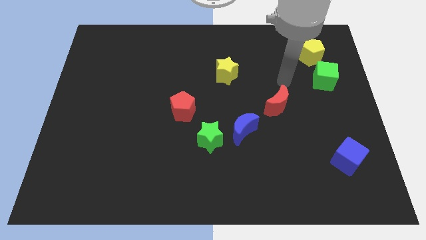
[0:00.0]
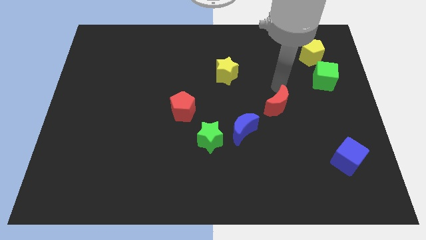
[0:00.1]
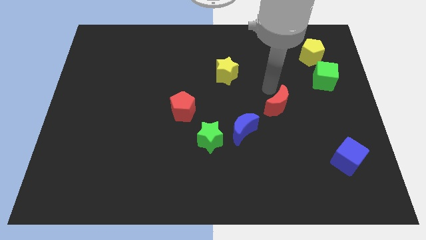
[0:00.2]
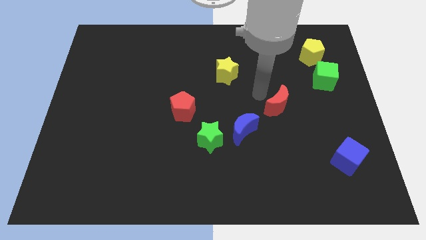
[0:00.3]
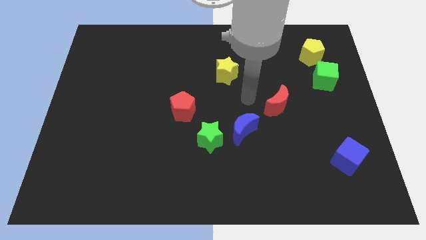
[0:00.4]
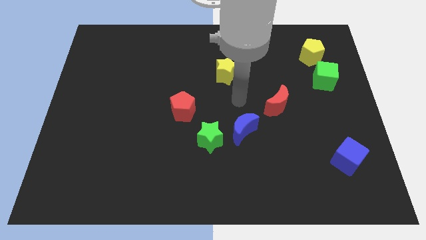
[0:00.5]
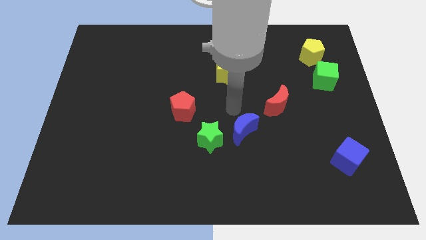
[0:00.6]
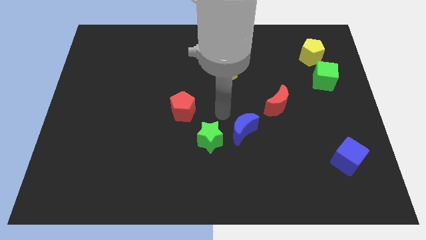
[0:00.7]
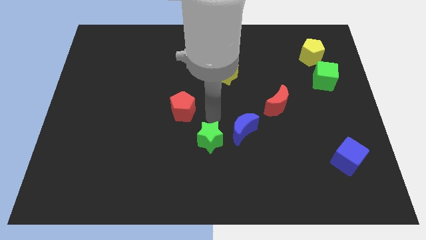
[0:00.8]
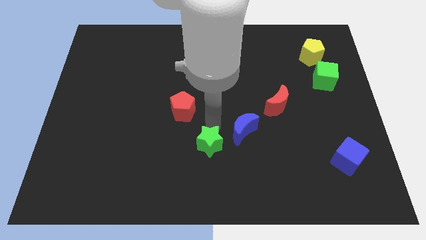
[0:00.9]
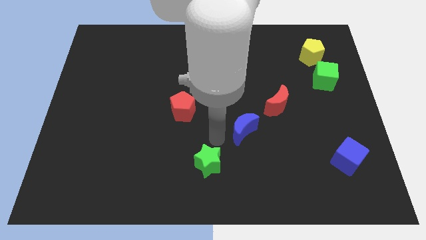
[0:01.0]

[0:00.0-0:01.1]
pull the blue moon apart from the green star

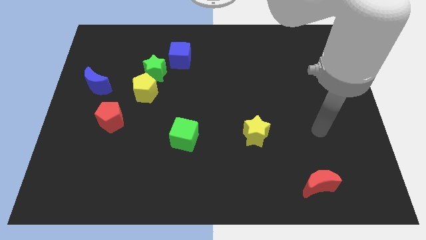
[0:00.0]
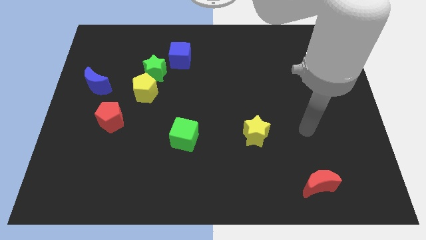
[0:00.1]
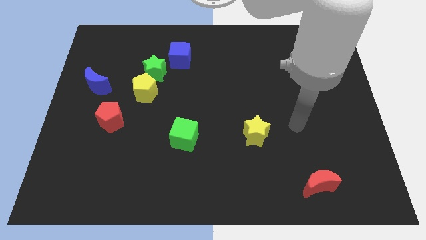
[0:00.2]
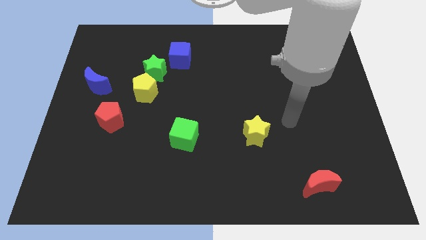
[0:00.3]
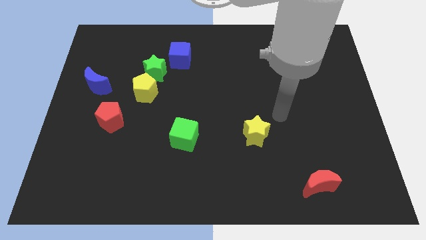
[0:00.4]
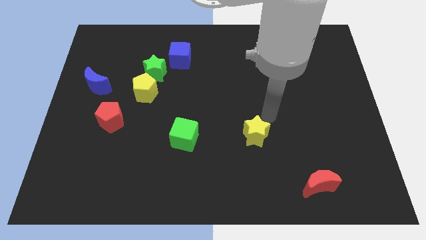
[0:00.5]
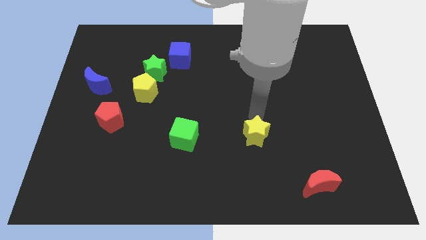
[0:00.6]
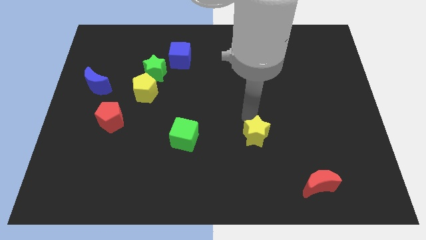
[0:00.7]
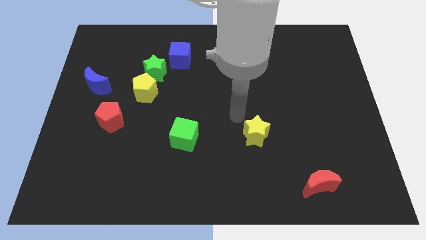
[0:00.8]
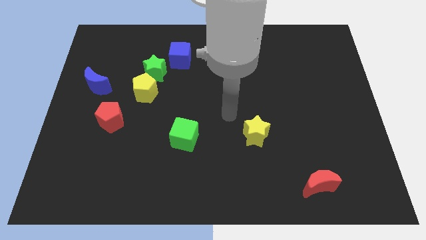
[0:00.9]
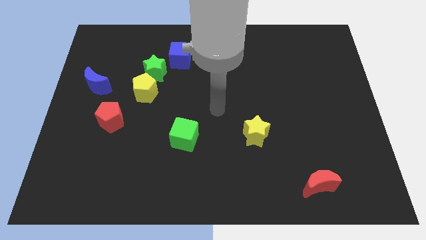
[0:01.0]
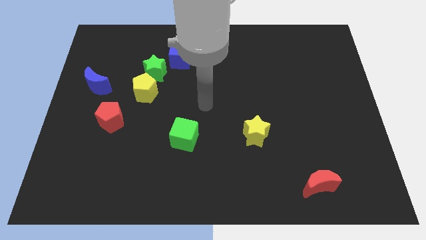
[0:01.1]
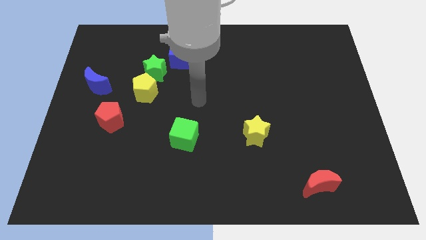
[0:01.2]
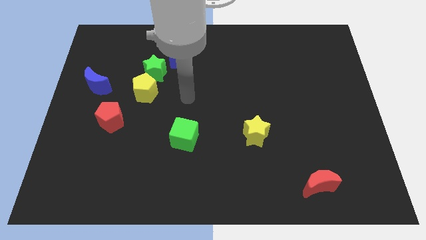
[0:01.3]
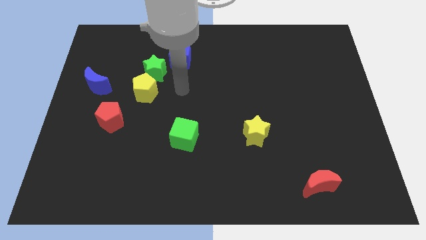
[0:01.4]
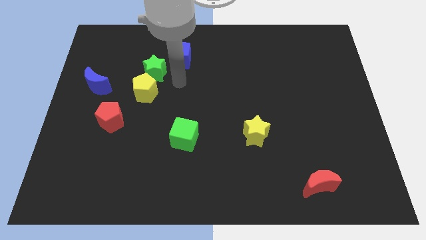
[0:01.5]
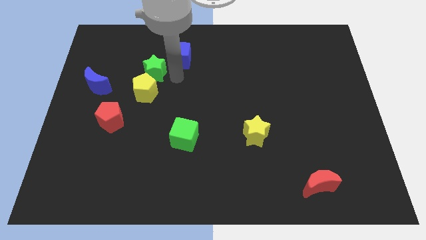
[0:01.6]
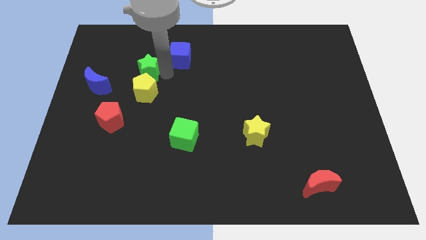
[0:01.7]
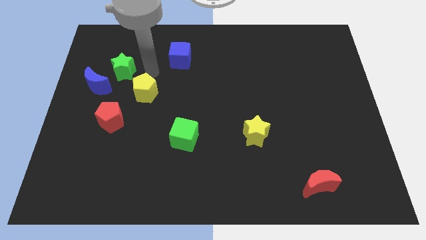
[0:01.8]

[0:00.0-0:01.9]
move the yellow pentagon away from the green star

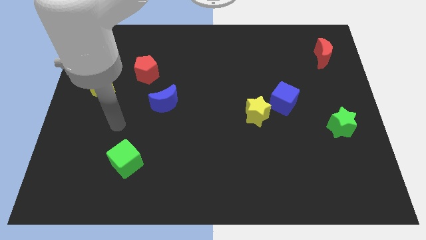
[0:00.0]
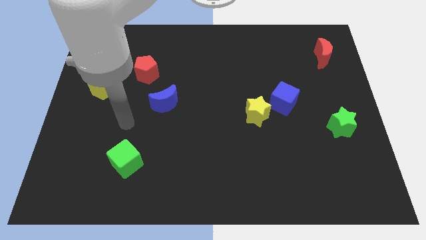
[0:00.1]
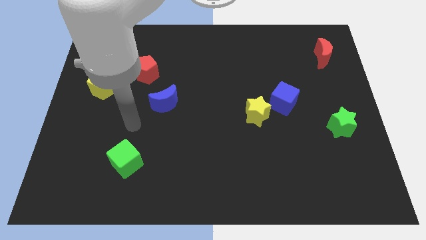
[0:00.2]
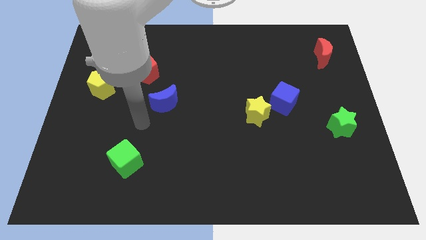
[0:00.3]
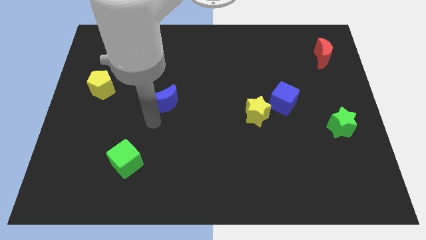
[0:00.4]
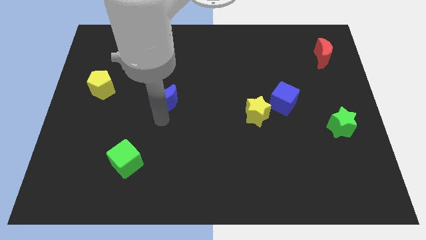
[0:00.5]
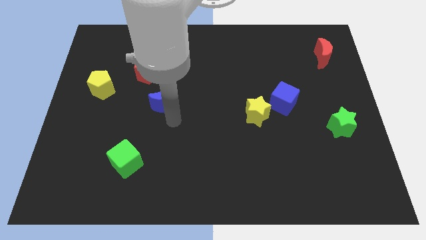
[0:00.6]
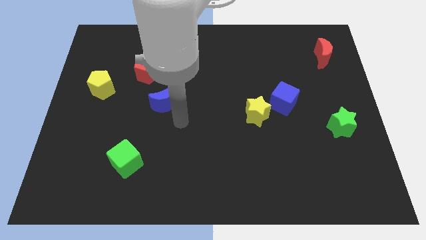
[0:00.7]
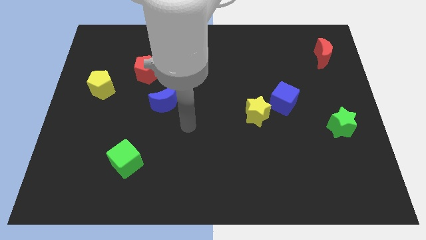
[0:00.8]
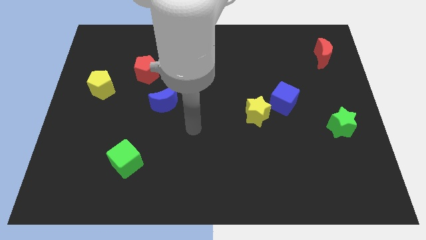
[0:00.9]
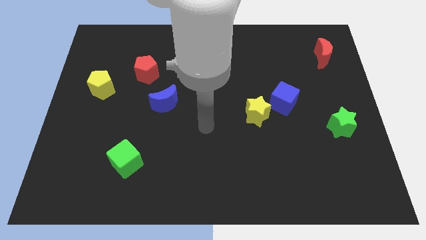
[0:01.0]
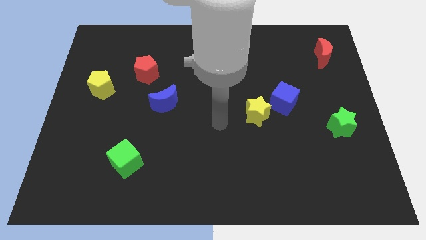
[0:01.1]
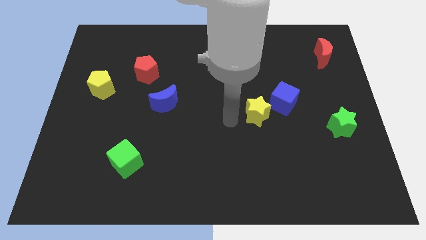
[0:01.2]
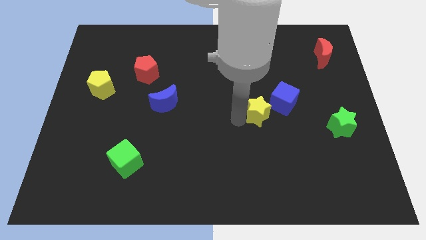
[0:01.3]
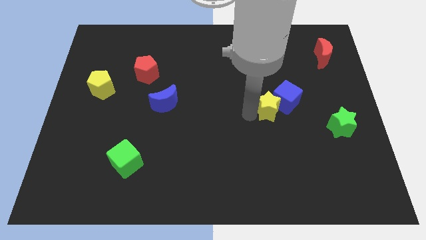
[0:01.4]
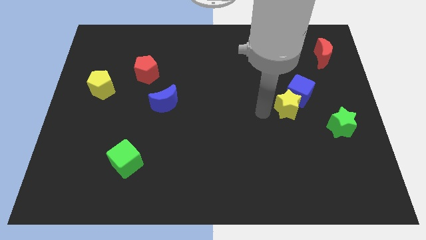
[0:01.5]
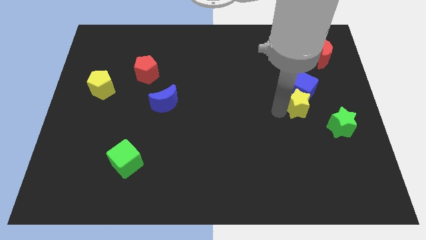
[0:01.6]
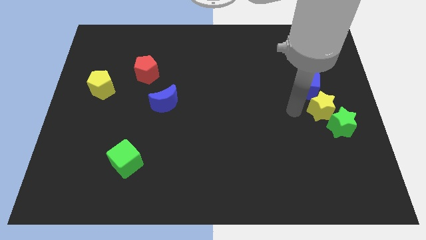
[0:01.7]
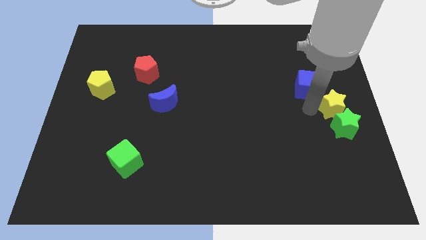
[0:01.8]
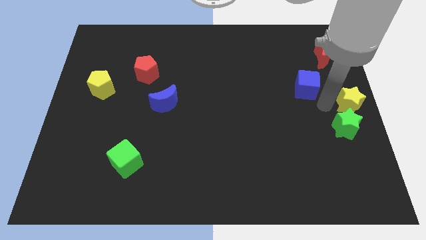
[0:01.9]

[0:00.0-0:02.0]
move the blue cube away from the yellow star

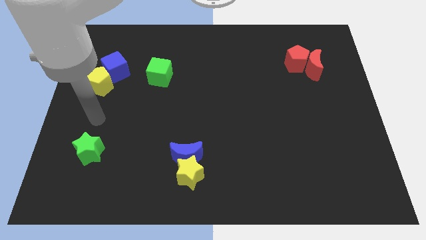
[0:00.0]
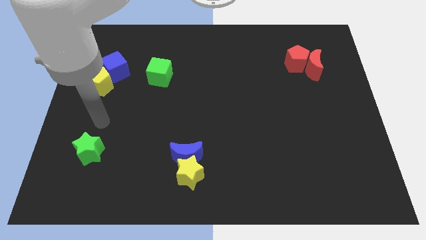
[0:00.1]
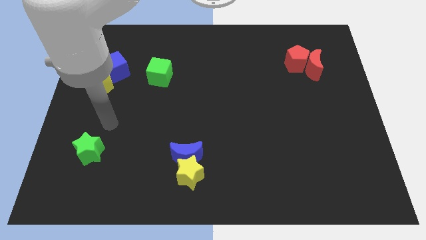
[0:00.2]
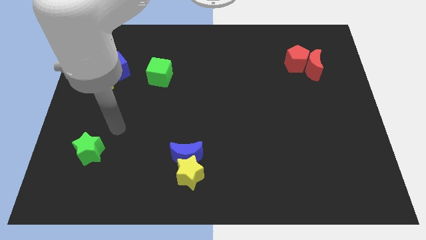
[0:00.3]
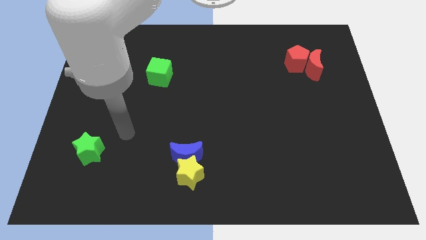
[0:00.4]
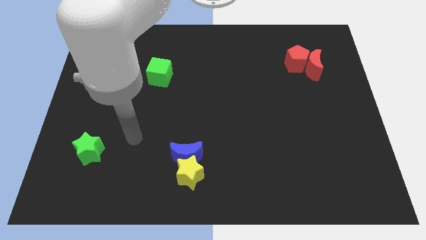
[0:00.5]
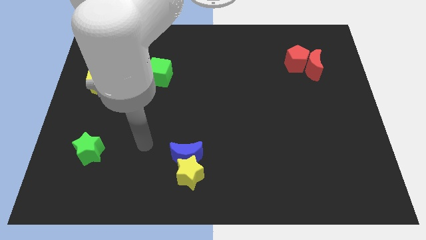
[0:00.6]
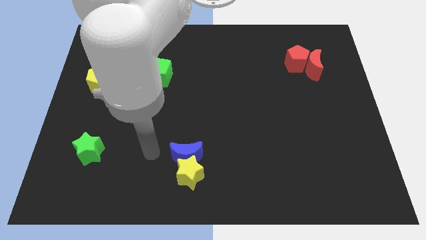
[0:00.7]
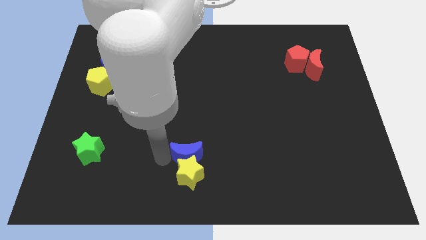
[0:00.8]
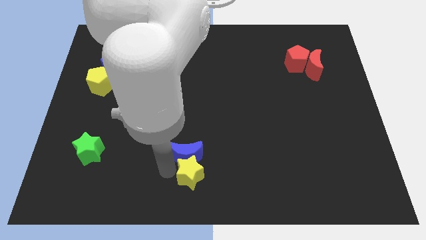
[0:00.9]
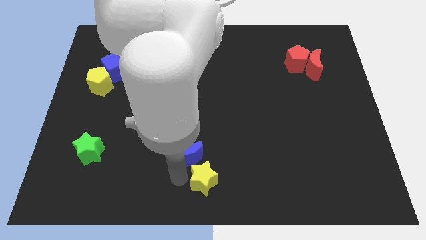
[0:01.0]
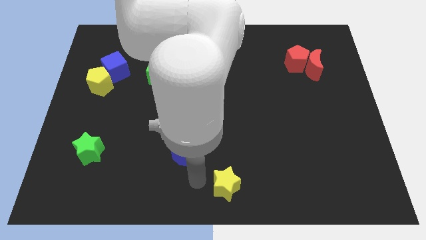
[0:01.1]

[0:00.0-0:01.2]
pull the blue moon apart from the yellow star

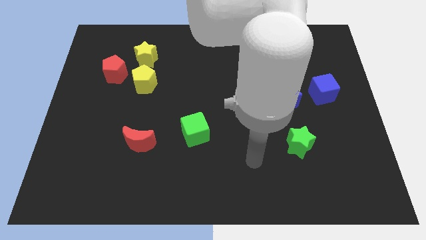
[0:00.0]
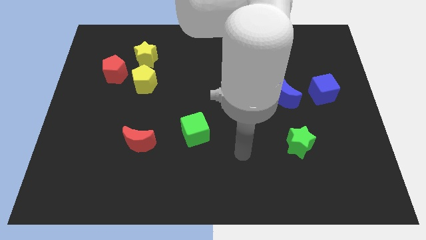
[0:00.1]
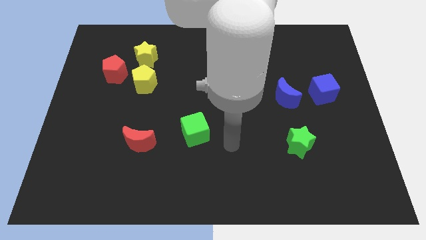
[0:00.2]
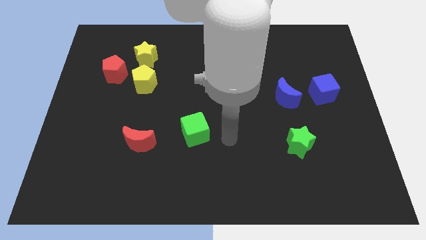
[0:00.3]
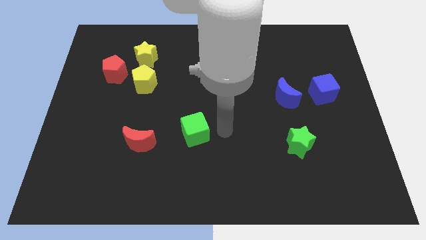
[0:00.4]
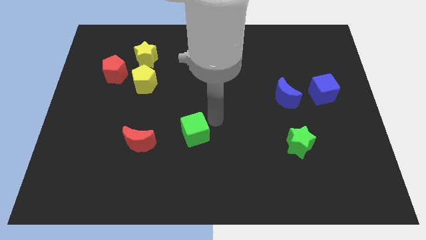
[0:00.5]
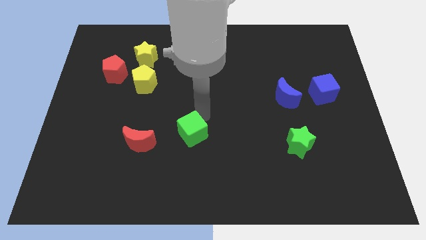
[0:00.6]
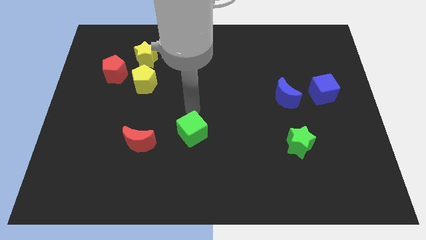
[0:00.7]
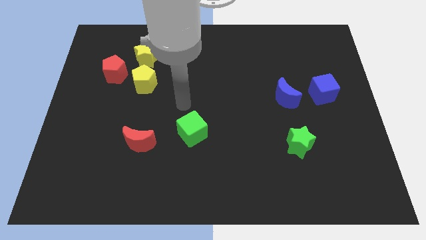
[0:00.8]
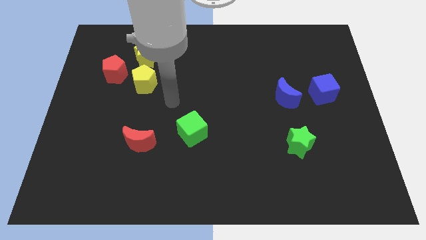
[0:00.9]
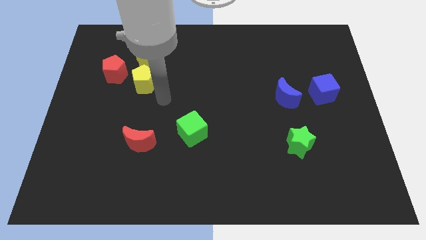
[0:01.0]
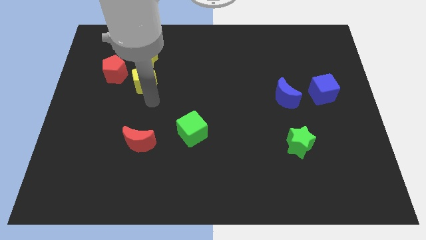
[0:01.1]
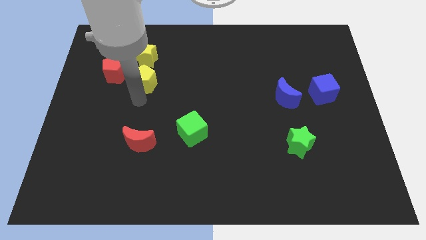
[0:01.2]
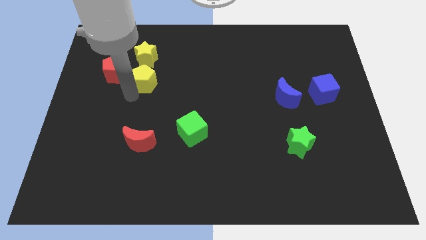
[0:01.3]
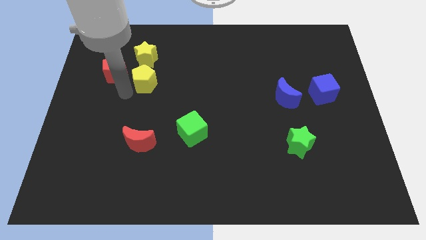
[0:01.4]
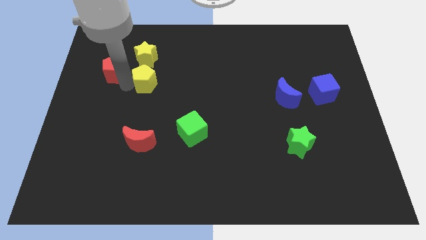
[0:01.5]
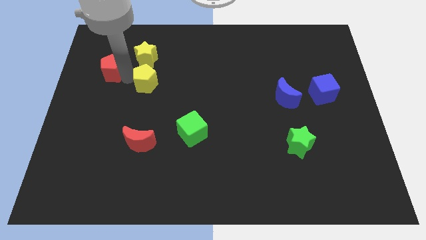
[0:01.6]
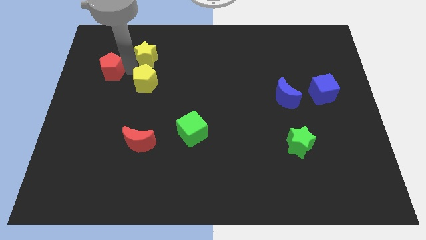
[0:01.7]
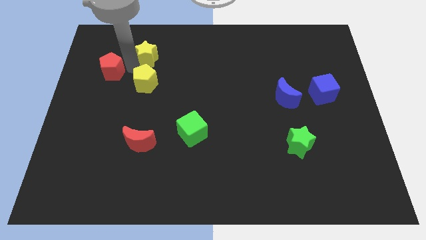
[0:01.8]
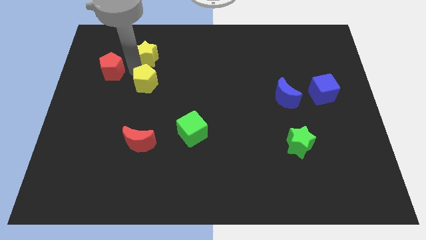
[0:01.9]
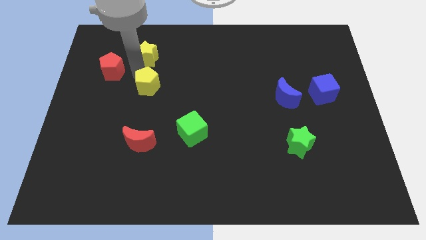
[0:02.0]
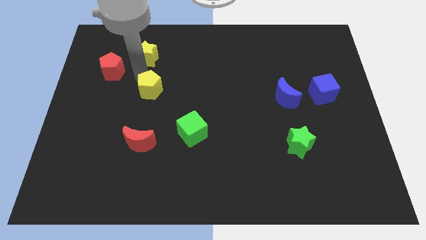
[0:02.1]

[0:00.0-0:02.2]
move the yellow pentagon away from the red pentagon and yellow star

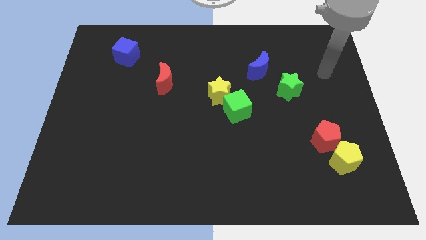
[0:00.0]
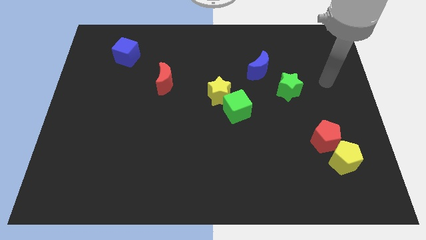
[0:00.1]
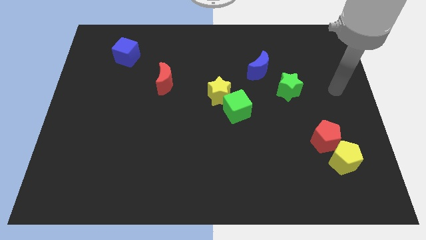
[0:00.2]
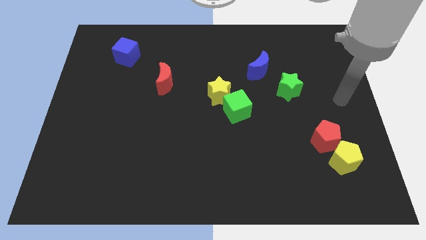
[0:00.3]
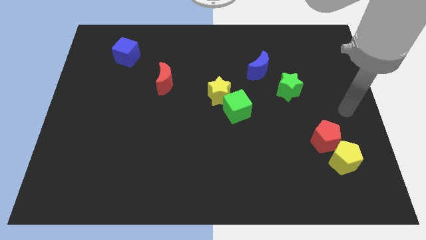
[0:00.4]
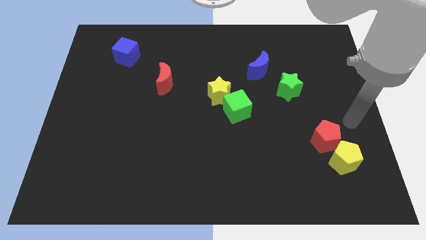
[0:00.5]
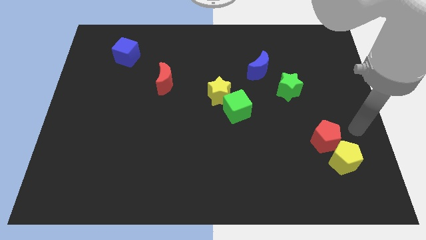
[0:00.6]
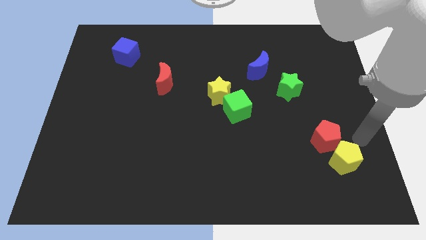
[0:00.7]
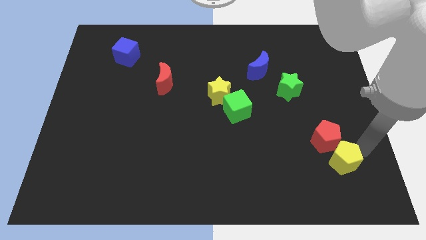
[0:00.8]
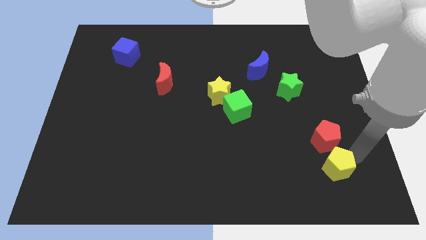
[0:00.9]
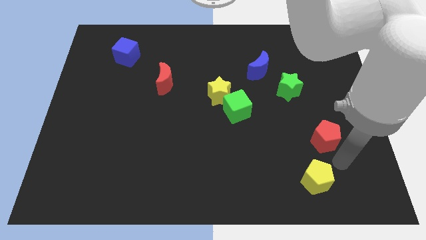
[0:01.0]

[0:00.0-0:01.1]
separate the red pentagon from the yellow pentagon
